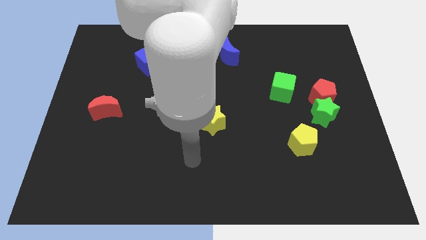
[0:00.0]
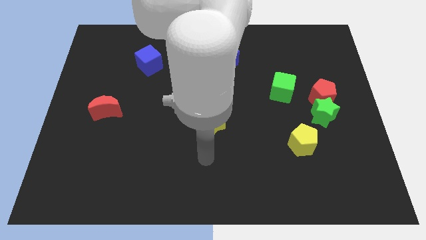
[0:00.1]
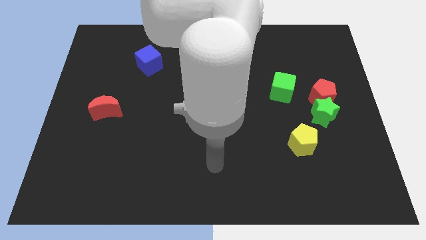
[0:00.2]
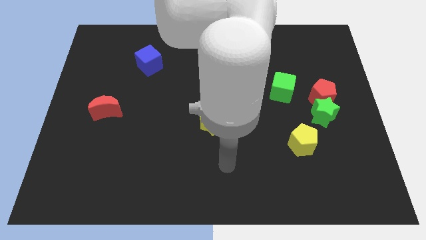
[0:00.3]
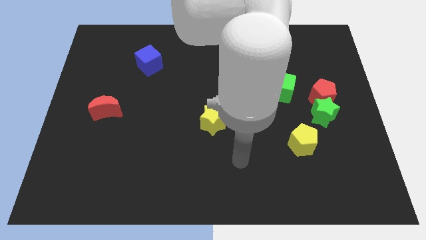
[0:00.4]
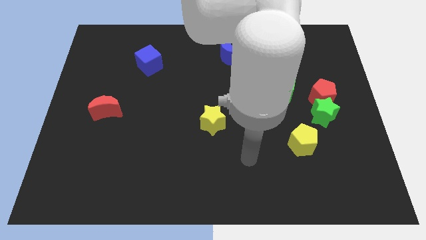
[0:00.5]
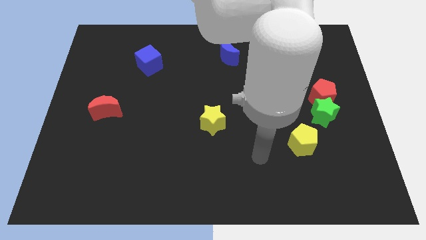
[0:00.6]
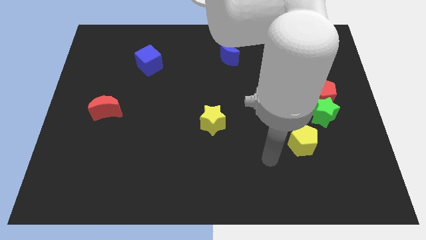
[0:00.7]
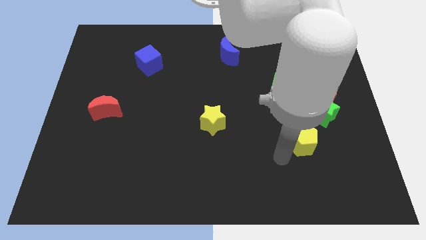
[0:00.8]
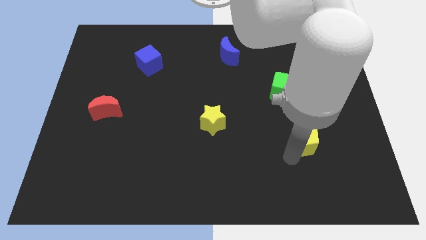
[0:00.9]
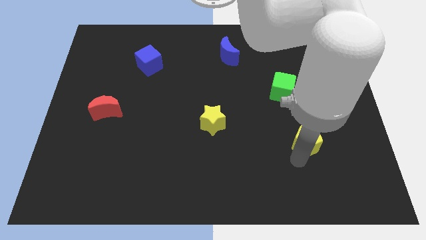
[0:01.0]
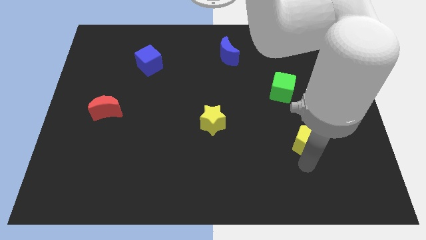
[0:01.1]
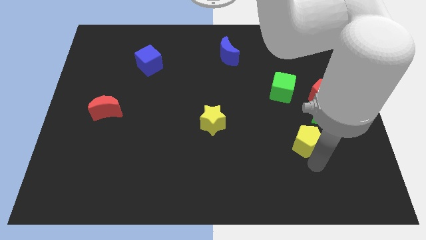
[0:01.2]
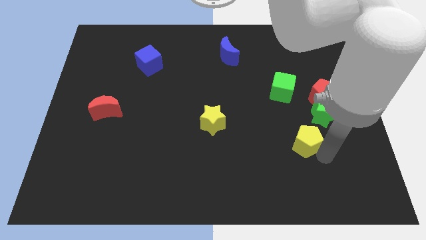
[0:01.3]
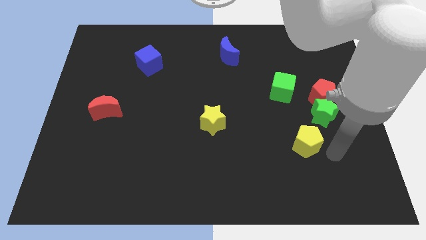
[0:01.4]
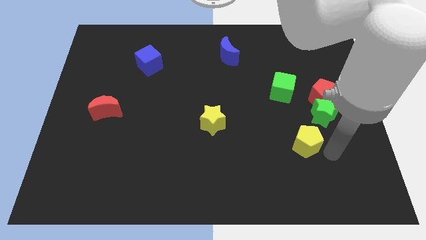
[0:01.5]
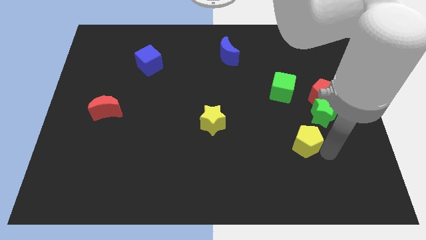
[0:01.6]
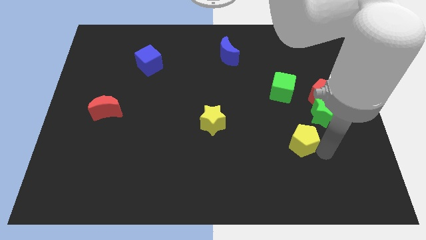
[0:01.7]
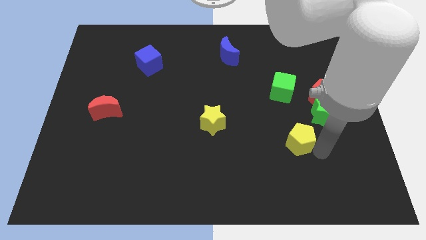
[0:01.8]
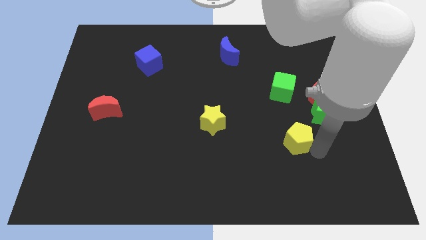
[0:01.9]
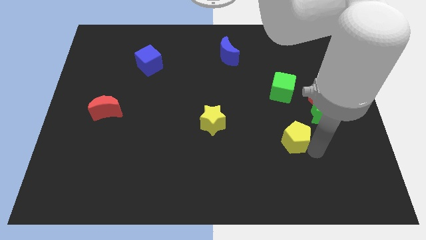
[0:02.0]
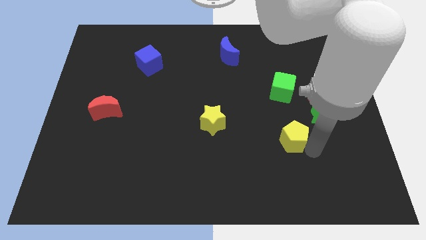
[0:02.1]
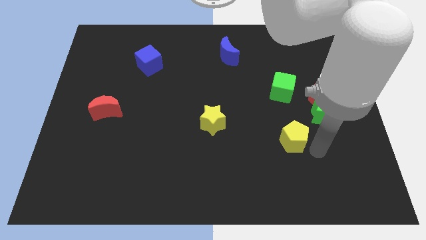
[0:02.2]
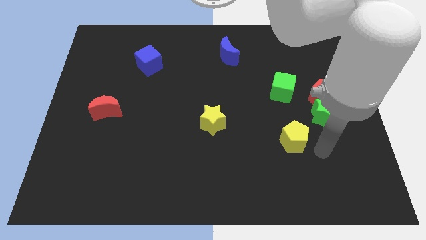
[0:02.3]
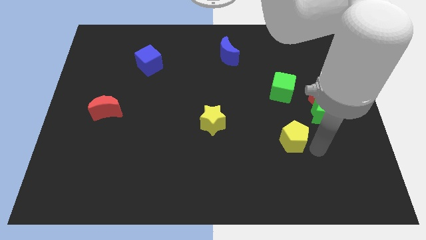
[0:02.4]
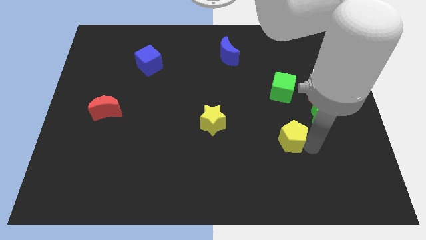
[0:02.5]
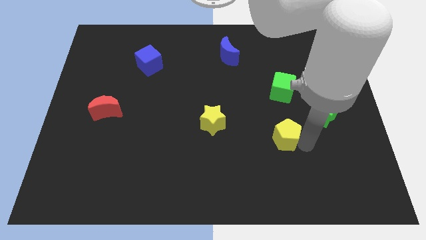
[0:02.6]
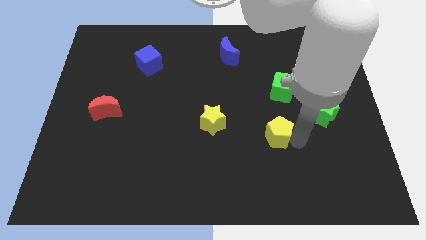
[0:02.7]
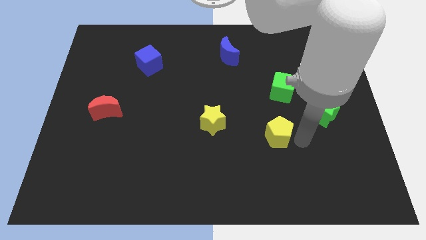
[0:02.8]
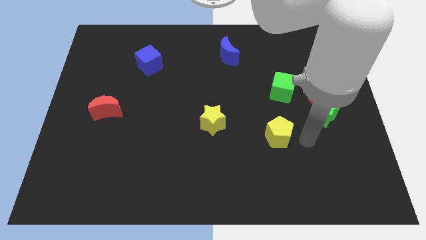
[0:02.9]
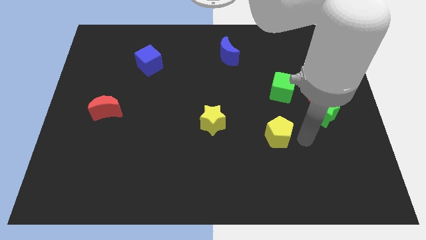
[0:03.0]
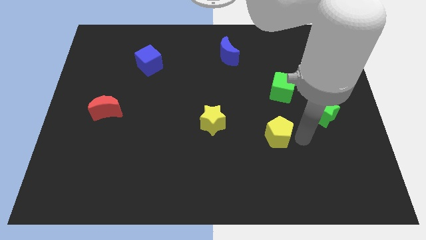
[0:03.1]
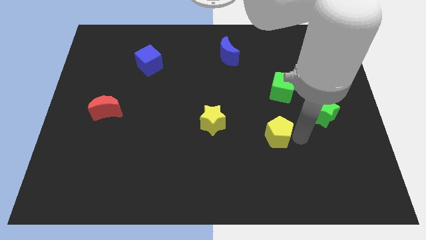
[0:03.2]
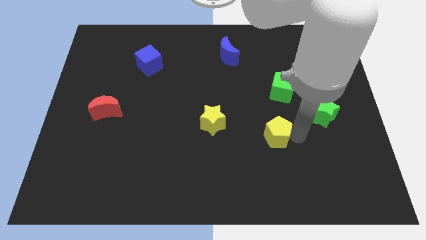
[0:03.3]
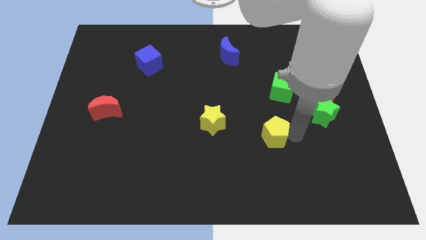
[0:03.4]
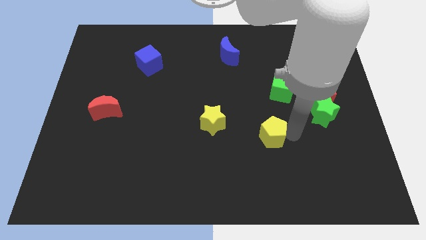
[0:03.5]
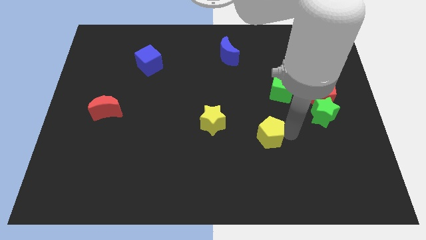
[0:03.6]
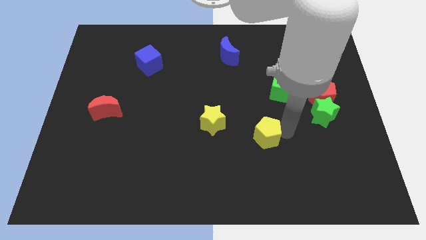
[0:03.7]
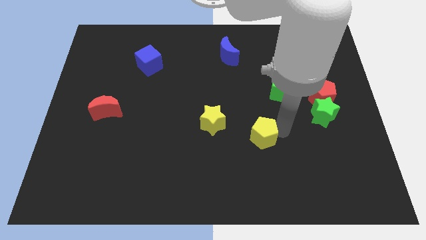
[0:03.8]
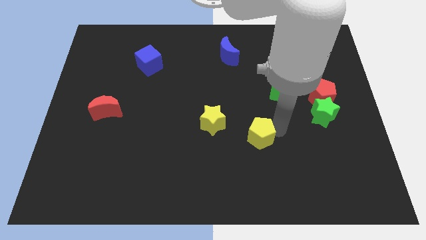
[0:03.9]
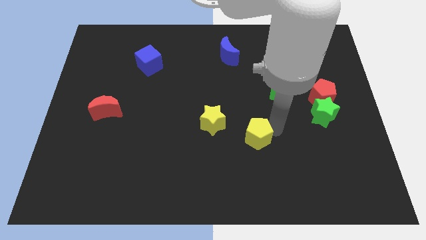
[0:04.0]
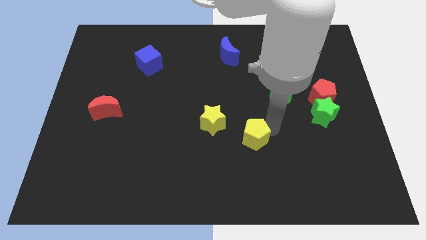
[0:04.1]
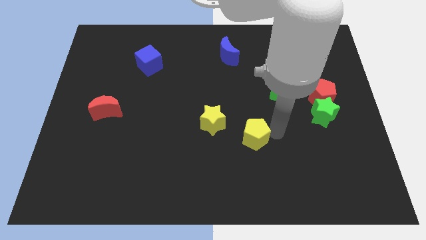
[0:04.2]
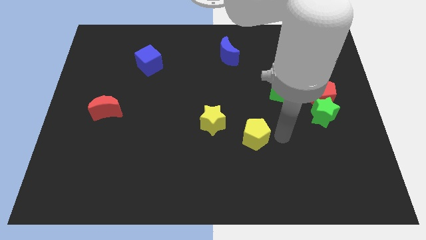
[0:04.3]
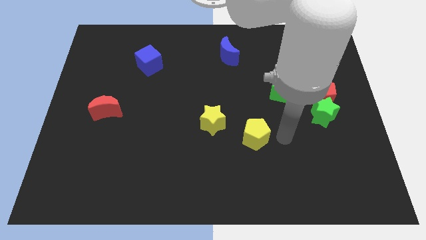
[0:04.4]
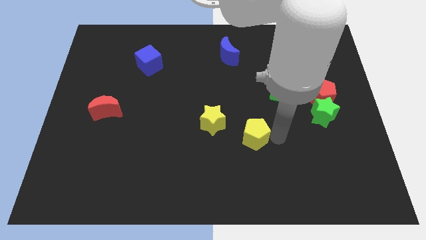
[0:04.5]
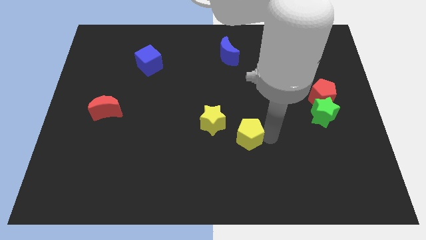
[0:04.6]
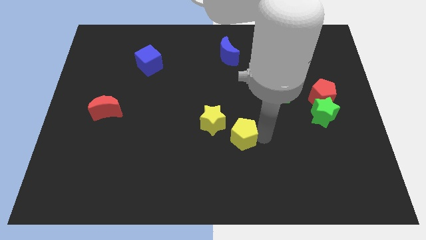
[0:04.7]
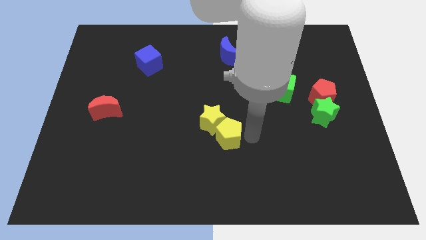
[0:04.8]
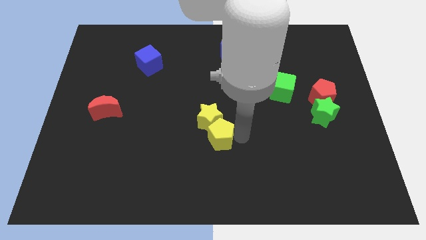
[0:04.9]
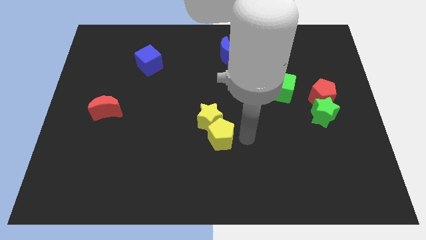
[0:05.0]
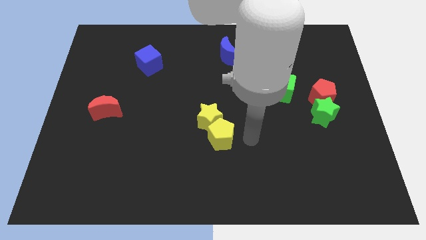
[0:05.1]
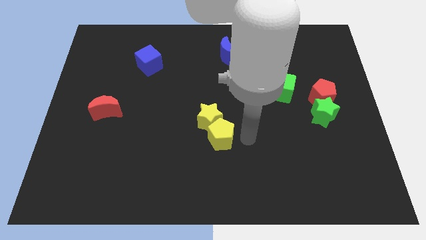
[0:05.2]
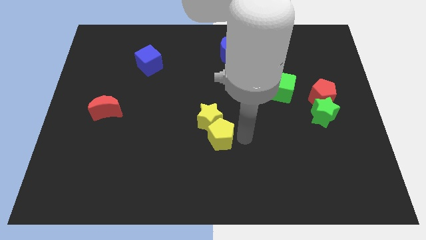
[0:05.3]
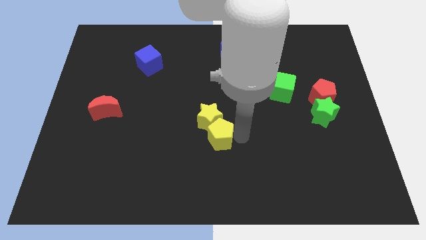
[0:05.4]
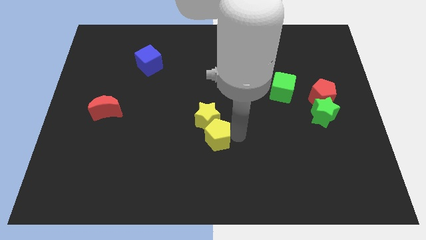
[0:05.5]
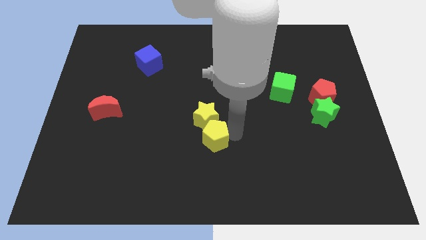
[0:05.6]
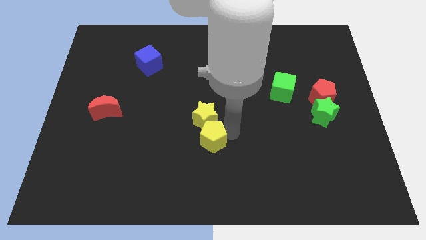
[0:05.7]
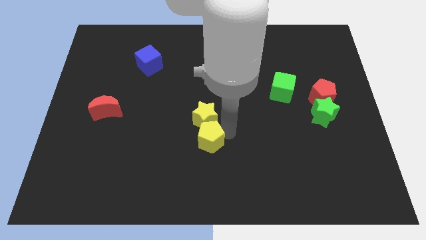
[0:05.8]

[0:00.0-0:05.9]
slide the yellow pentagon left

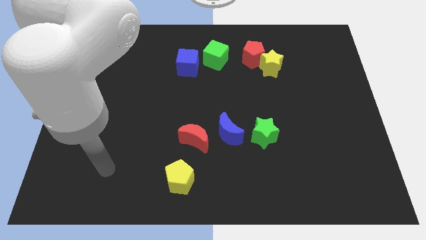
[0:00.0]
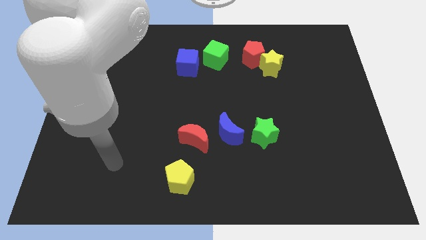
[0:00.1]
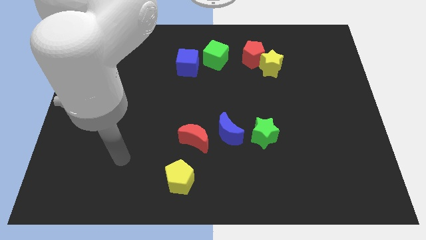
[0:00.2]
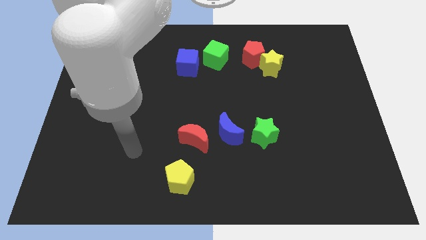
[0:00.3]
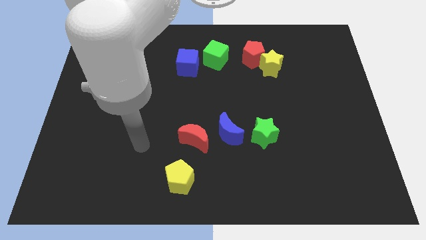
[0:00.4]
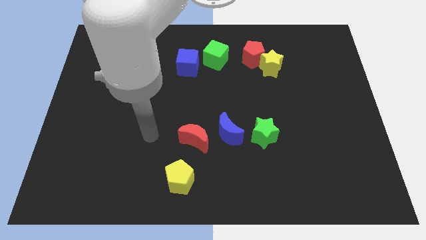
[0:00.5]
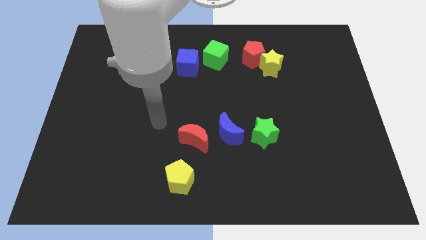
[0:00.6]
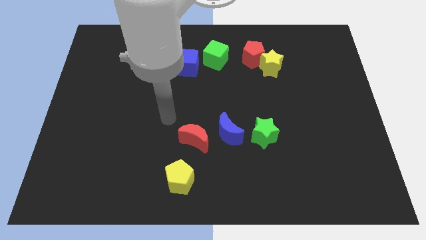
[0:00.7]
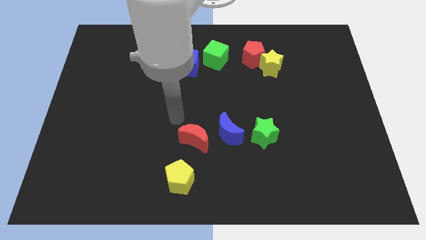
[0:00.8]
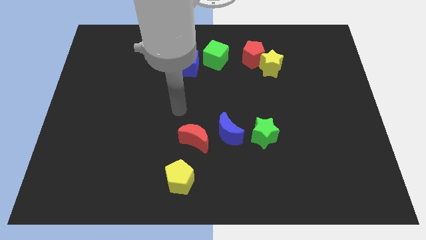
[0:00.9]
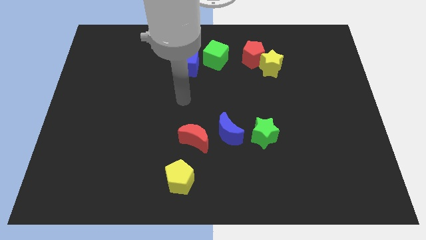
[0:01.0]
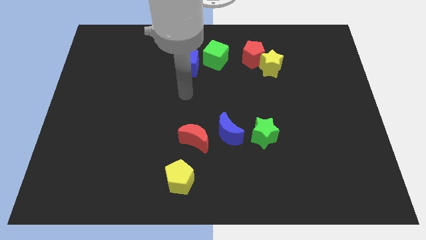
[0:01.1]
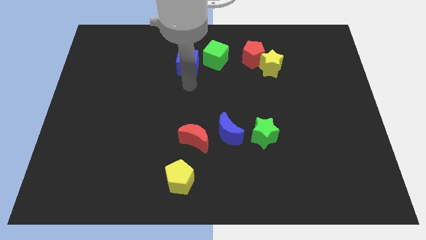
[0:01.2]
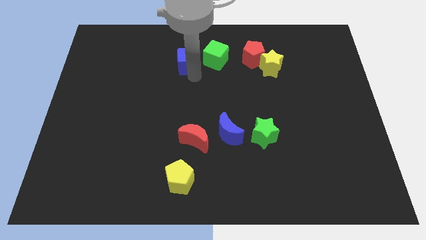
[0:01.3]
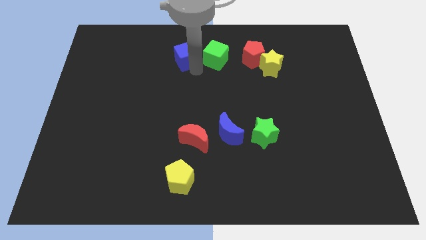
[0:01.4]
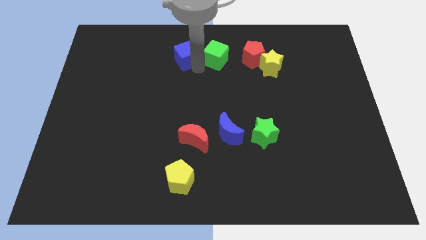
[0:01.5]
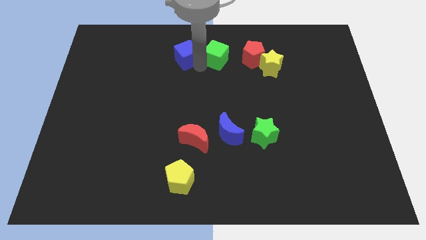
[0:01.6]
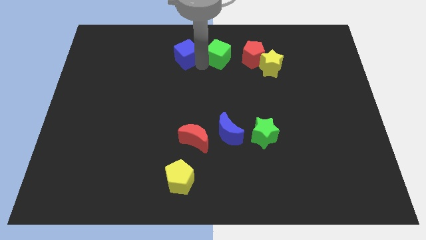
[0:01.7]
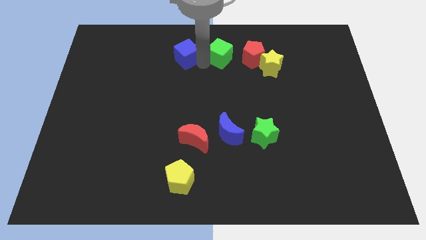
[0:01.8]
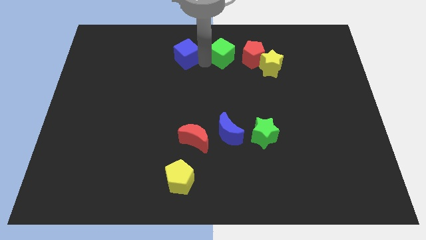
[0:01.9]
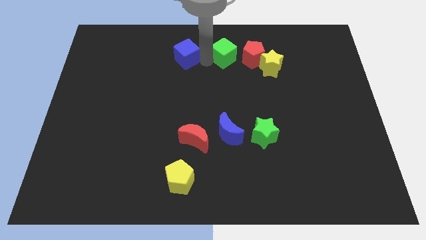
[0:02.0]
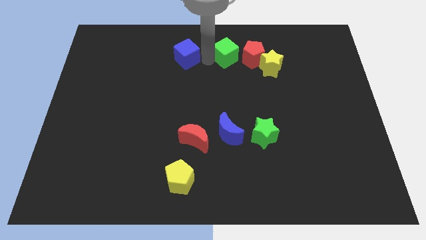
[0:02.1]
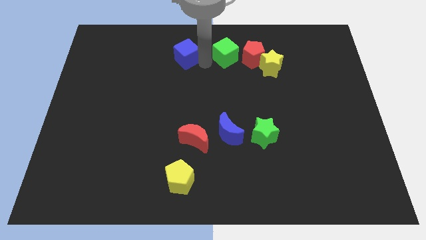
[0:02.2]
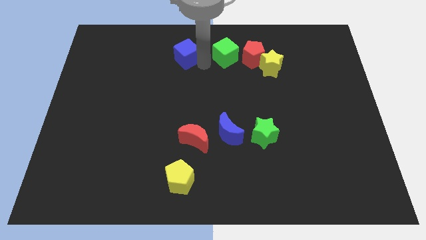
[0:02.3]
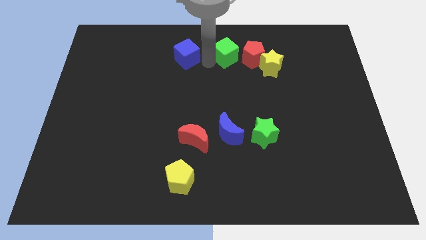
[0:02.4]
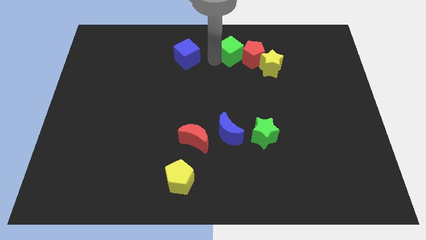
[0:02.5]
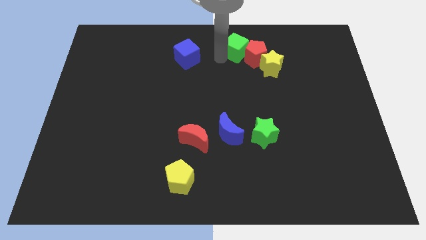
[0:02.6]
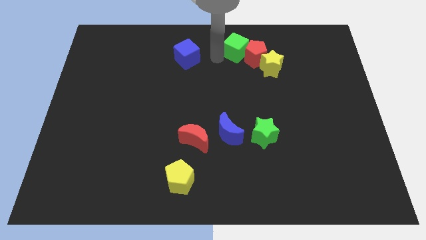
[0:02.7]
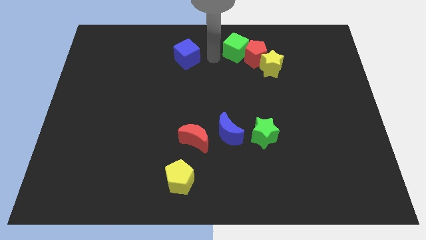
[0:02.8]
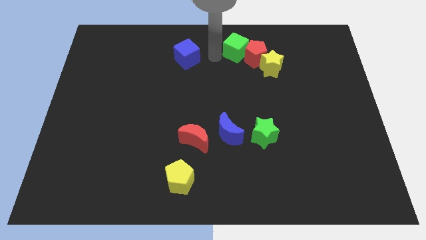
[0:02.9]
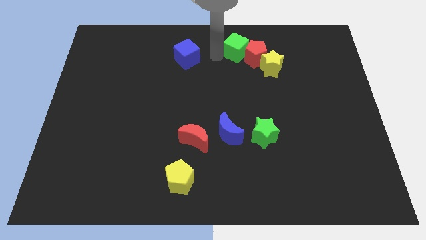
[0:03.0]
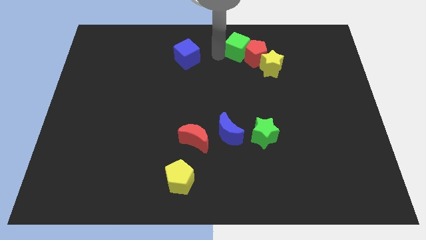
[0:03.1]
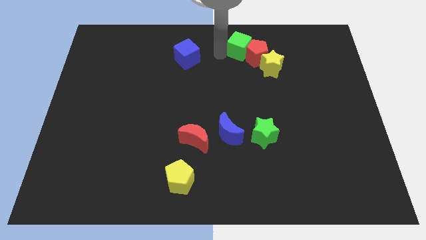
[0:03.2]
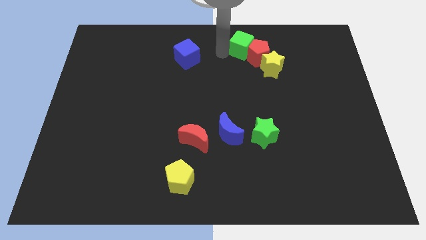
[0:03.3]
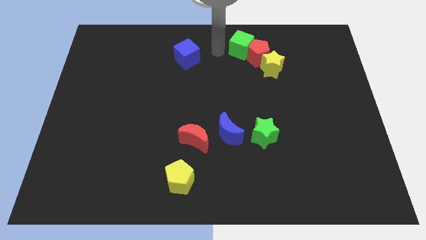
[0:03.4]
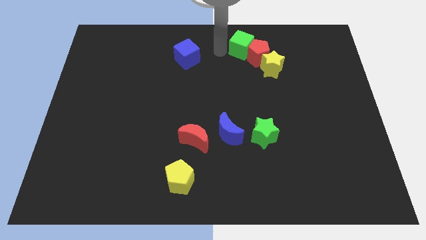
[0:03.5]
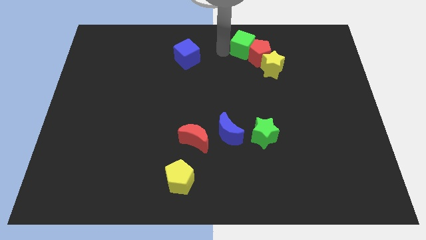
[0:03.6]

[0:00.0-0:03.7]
slightly slide the green cube right
